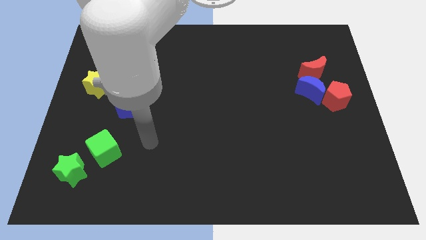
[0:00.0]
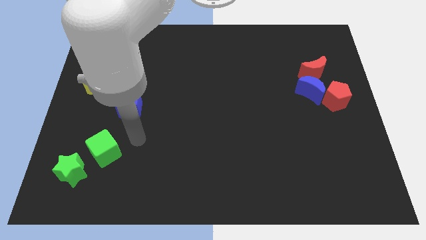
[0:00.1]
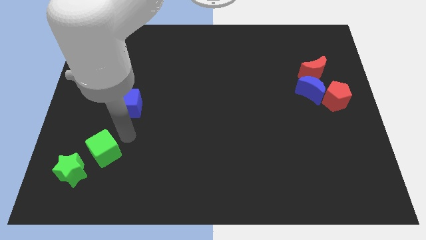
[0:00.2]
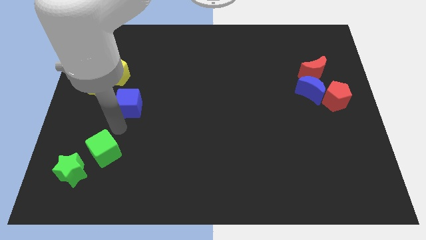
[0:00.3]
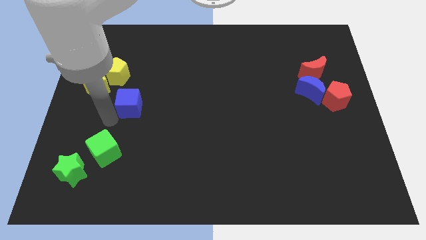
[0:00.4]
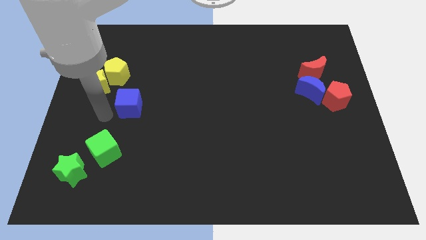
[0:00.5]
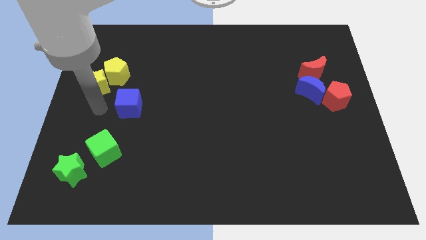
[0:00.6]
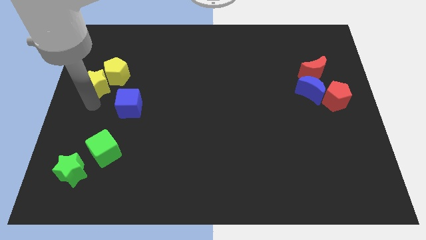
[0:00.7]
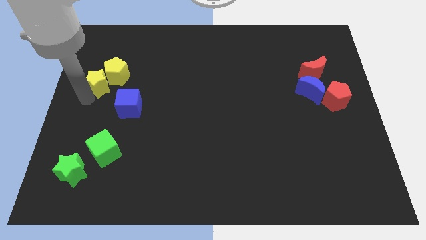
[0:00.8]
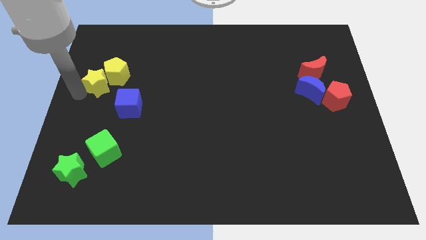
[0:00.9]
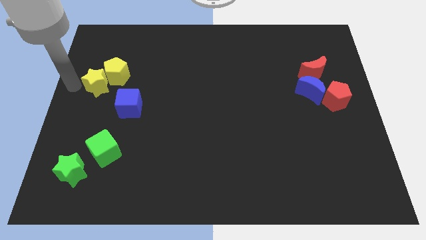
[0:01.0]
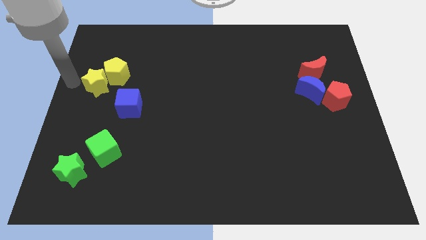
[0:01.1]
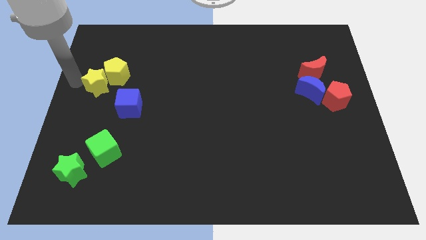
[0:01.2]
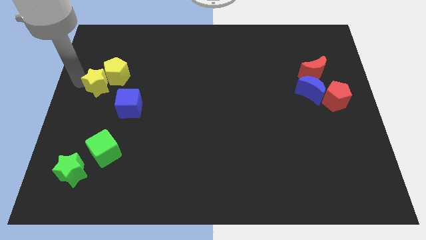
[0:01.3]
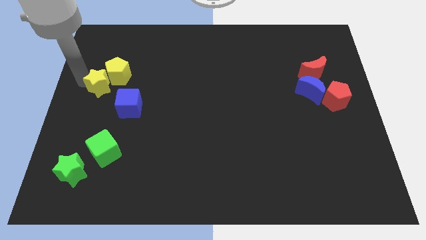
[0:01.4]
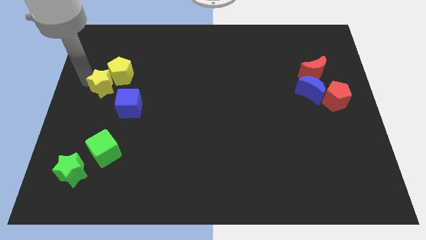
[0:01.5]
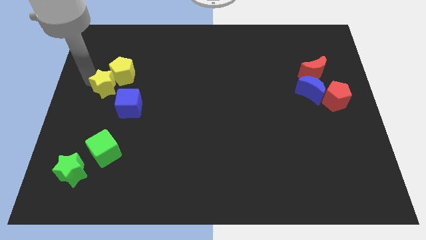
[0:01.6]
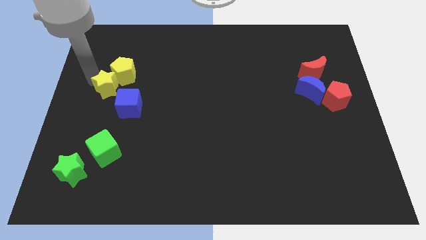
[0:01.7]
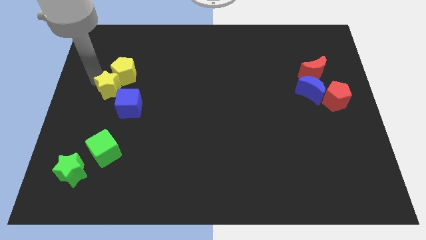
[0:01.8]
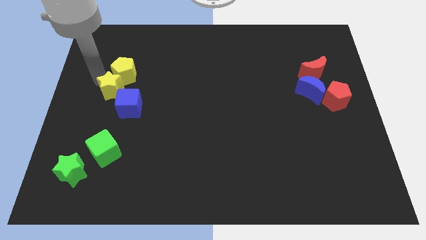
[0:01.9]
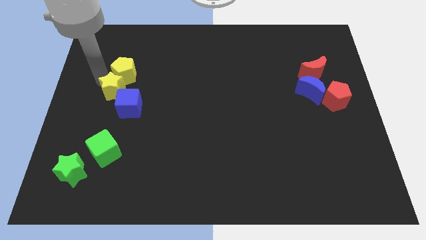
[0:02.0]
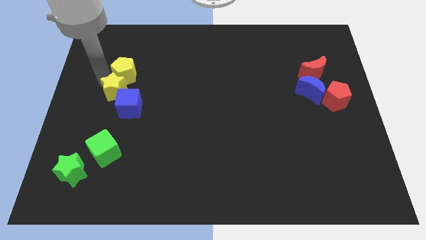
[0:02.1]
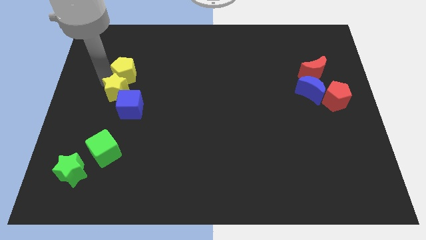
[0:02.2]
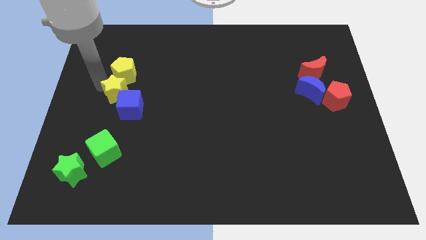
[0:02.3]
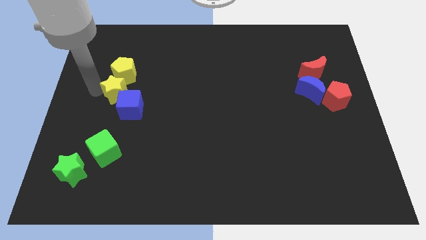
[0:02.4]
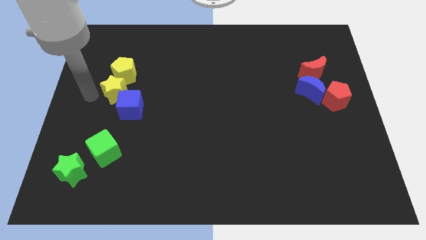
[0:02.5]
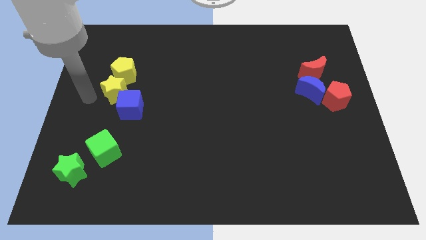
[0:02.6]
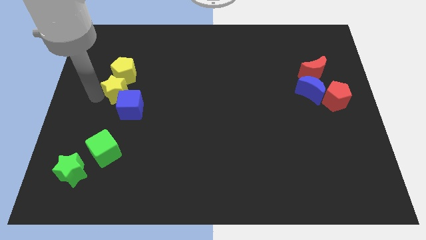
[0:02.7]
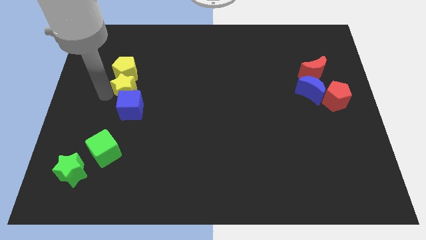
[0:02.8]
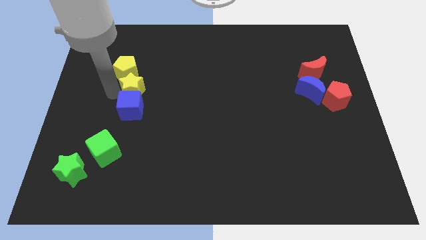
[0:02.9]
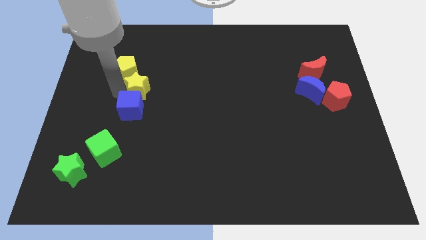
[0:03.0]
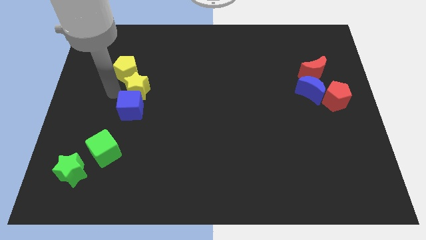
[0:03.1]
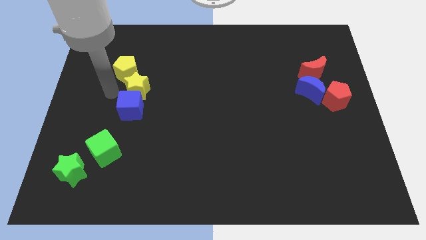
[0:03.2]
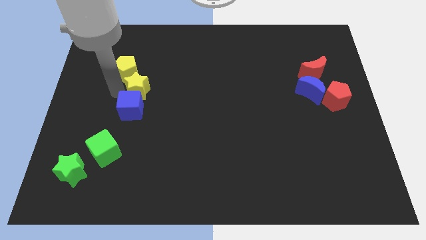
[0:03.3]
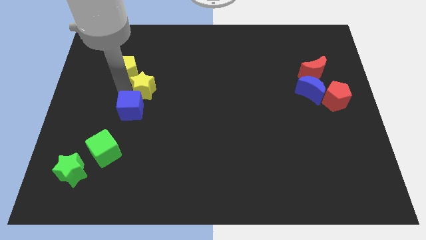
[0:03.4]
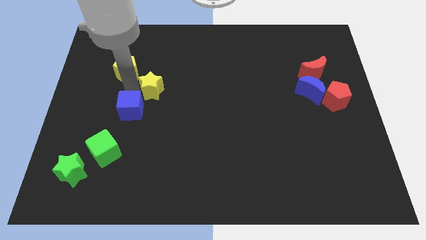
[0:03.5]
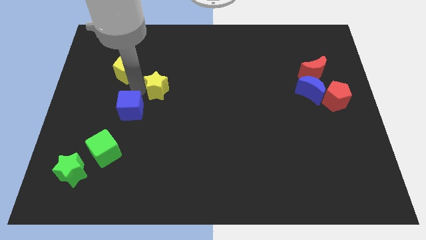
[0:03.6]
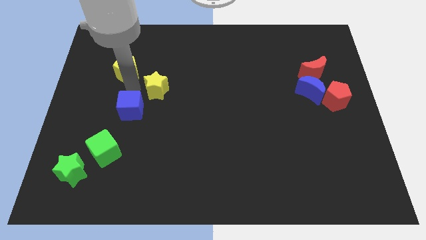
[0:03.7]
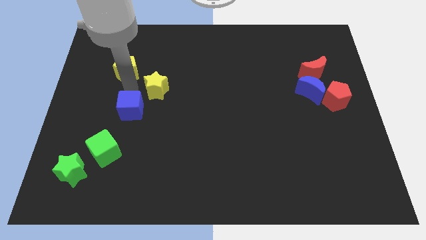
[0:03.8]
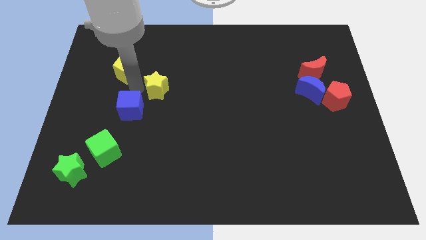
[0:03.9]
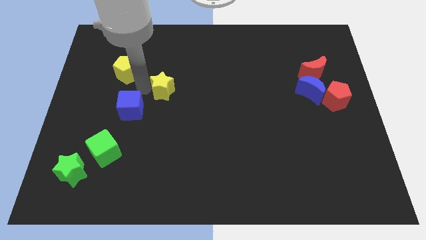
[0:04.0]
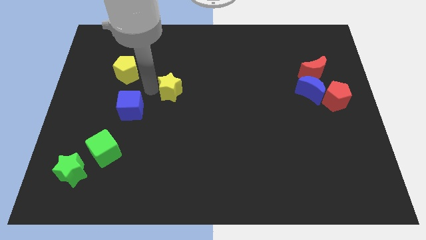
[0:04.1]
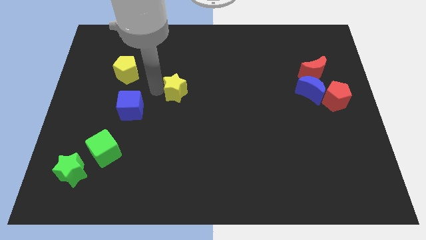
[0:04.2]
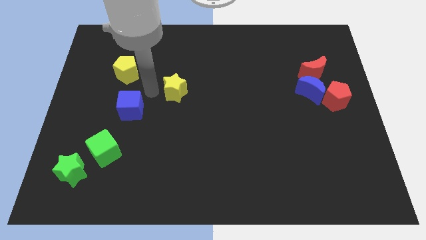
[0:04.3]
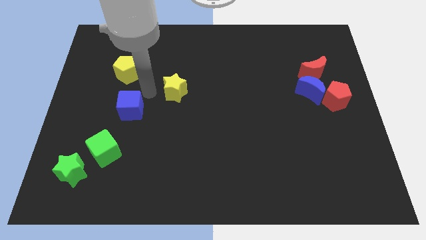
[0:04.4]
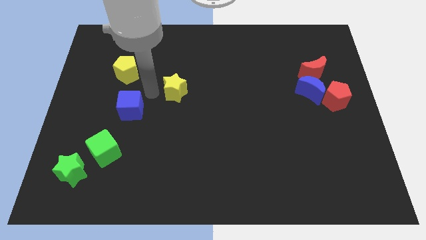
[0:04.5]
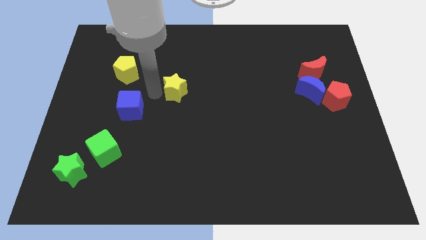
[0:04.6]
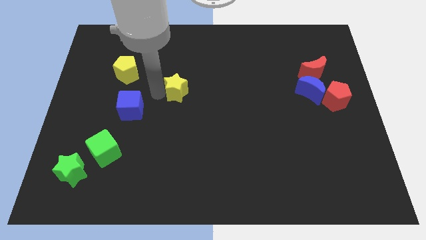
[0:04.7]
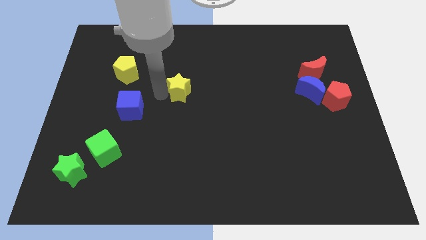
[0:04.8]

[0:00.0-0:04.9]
move the yellow star to the right

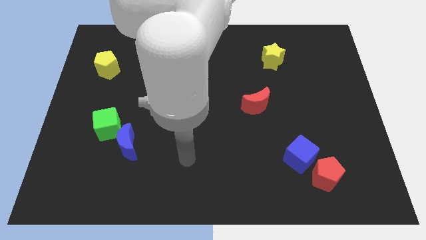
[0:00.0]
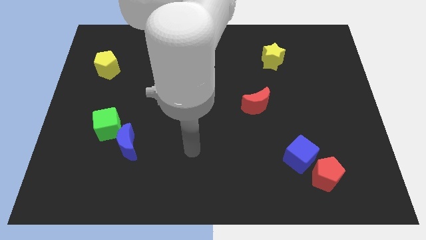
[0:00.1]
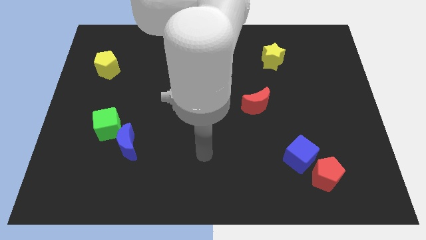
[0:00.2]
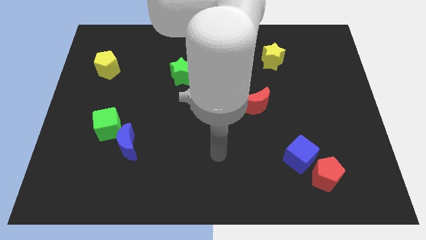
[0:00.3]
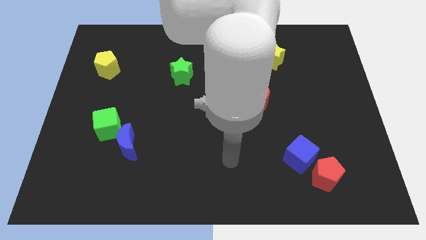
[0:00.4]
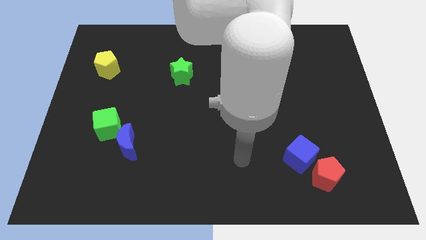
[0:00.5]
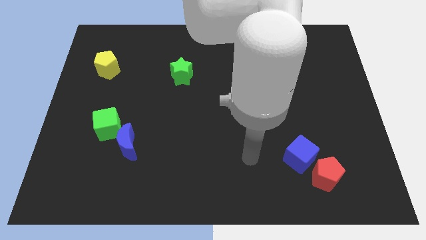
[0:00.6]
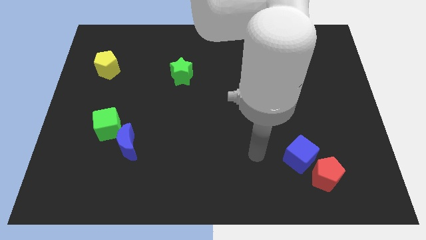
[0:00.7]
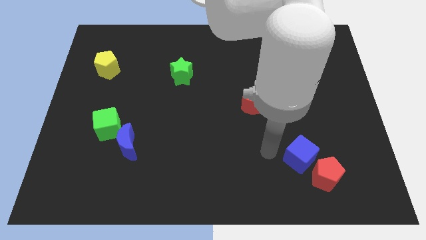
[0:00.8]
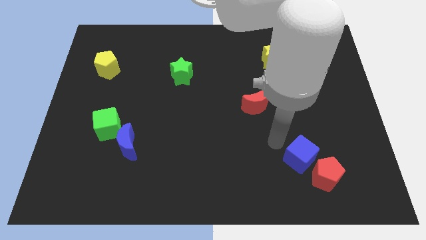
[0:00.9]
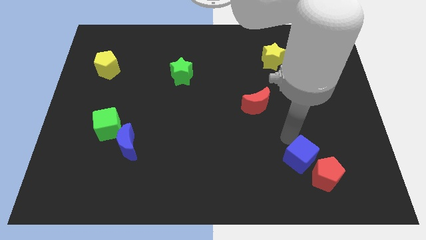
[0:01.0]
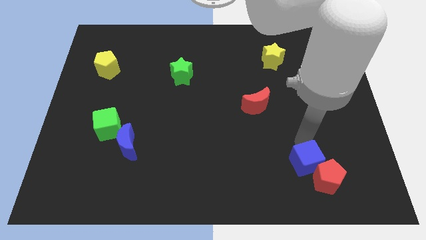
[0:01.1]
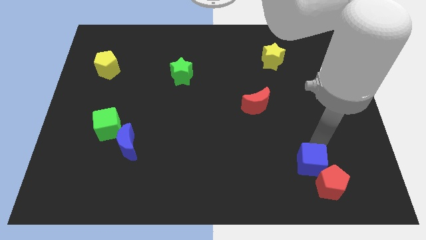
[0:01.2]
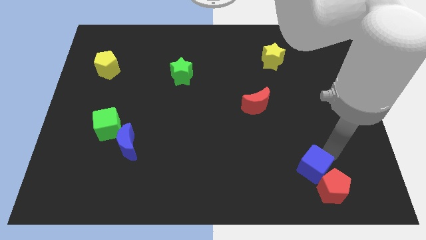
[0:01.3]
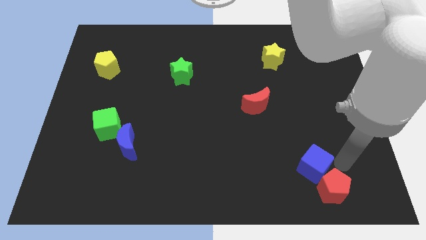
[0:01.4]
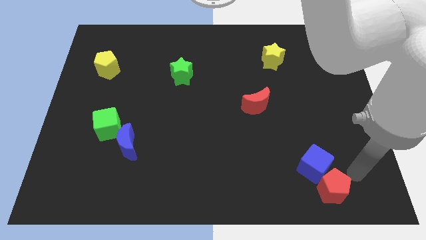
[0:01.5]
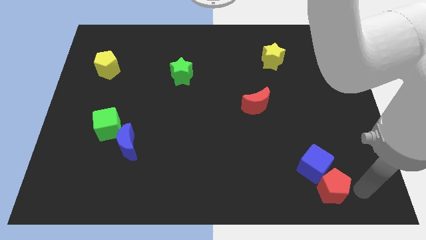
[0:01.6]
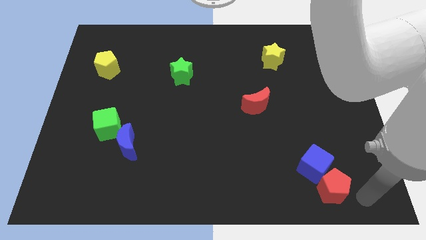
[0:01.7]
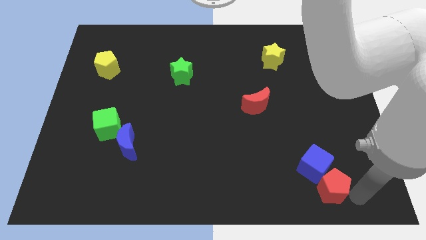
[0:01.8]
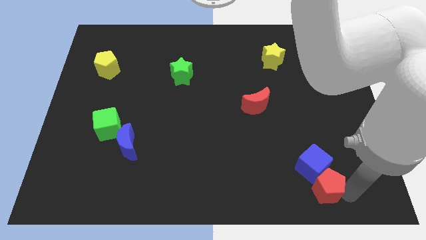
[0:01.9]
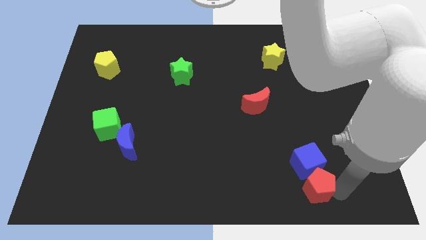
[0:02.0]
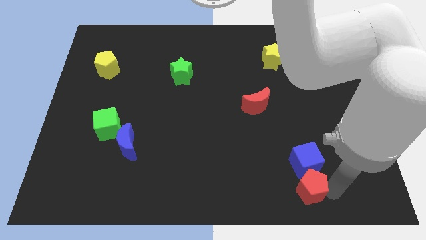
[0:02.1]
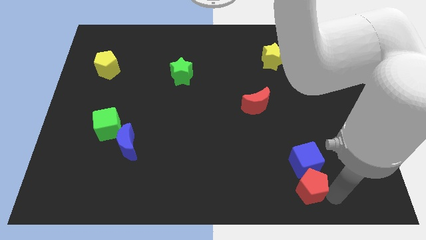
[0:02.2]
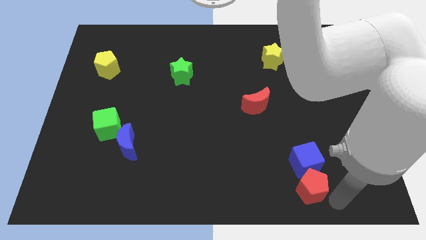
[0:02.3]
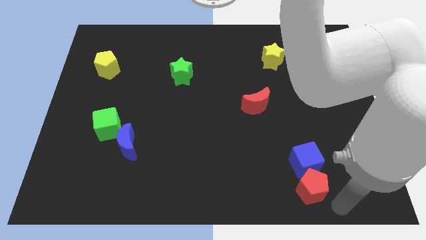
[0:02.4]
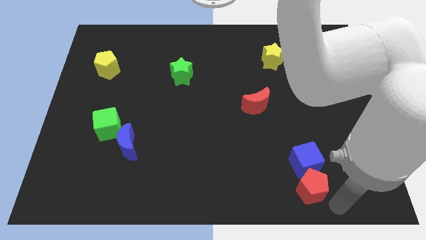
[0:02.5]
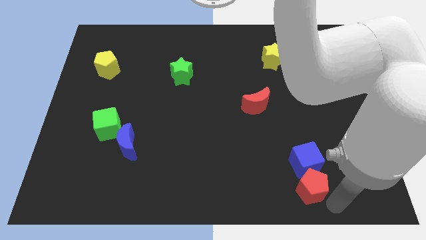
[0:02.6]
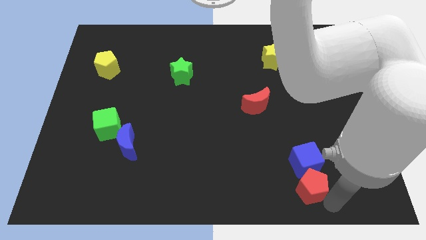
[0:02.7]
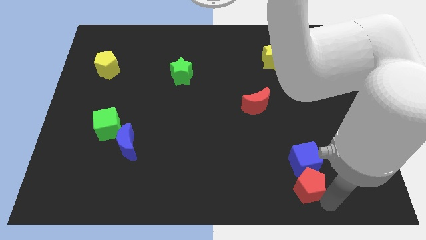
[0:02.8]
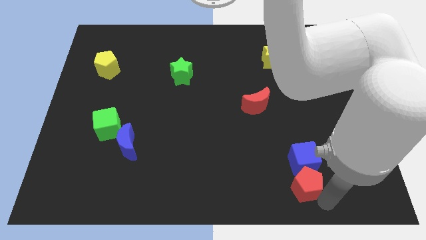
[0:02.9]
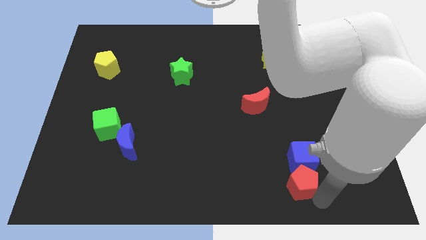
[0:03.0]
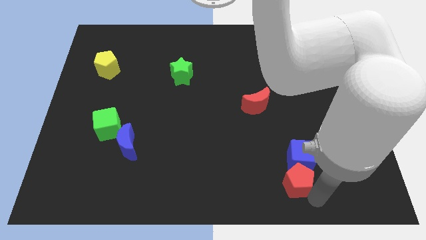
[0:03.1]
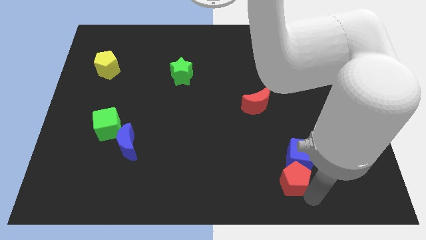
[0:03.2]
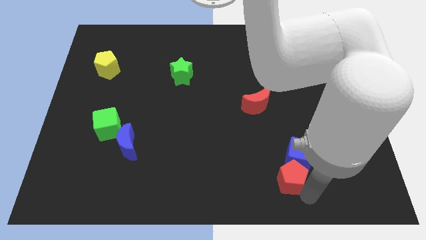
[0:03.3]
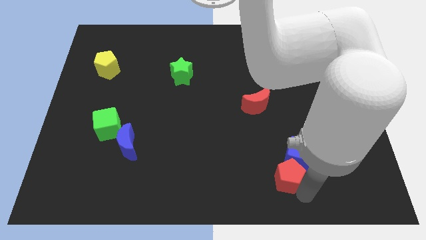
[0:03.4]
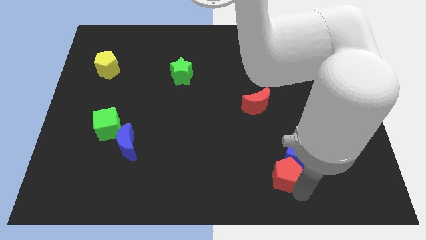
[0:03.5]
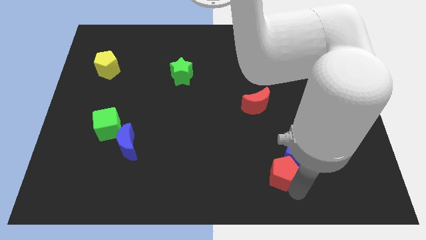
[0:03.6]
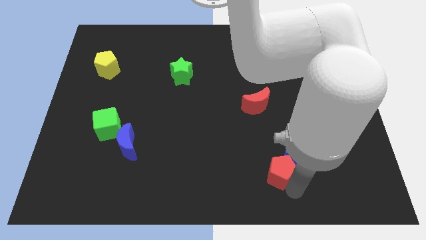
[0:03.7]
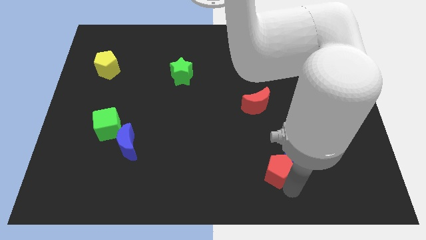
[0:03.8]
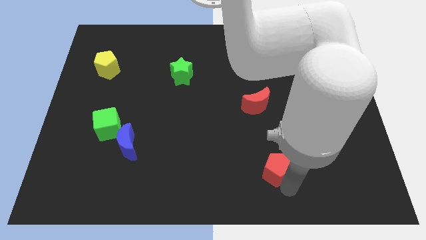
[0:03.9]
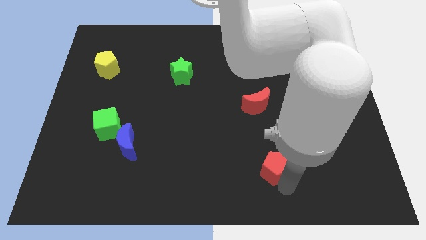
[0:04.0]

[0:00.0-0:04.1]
push the red pentagon up and left diagonally a little bit
